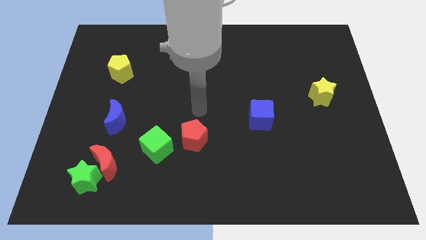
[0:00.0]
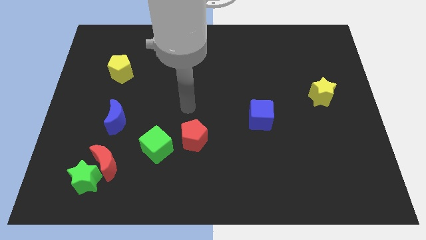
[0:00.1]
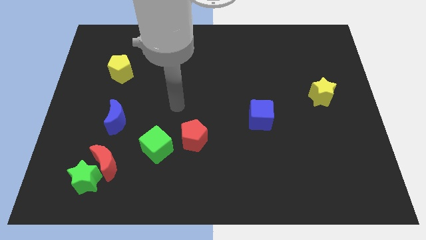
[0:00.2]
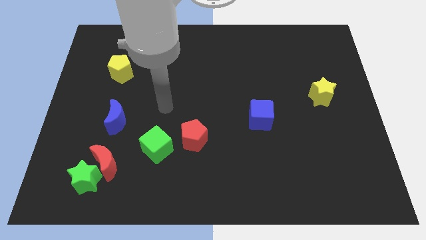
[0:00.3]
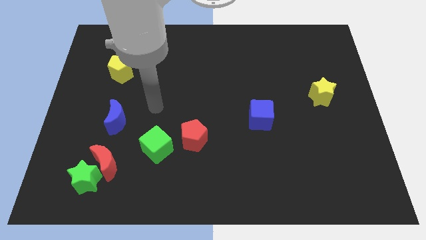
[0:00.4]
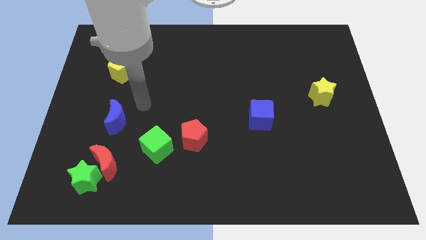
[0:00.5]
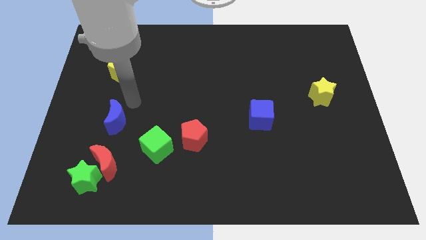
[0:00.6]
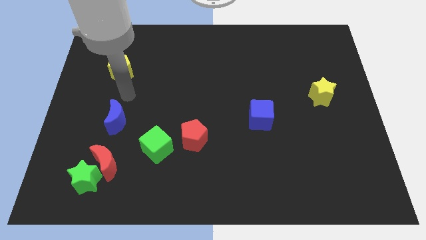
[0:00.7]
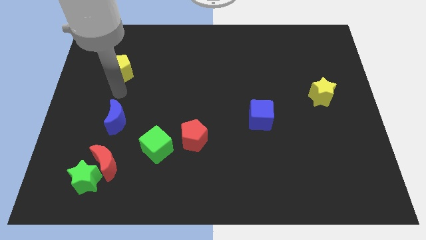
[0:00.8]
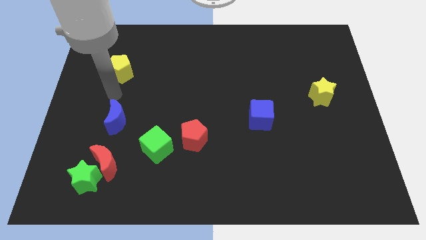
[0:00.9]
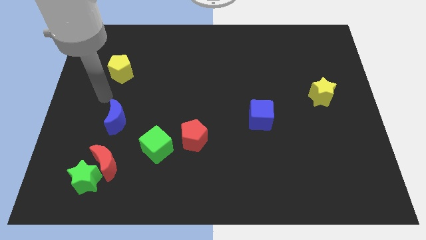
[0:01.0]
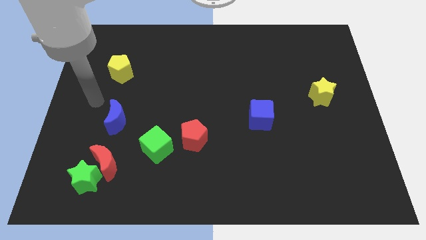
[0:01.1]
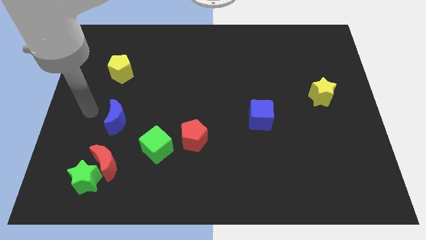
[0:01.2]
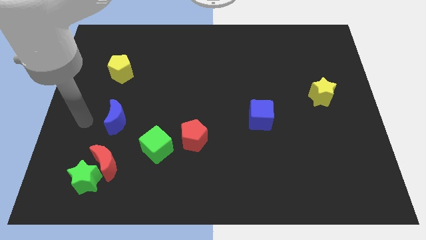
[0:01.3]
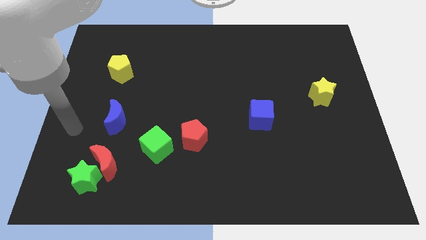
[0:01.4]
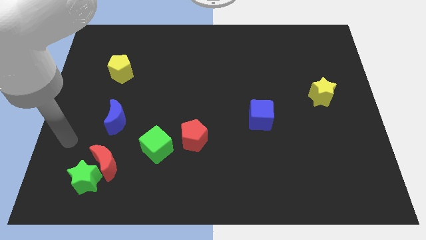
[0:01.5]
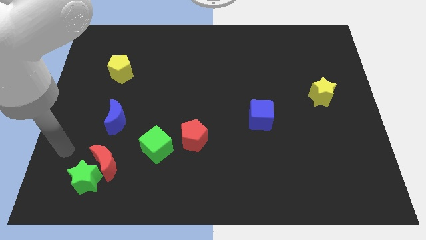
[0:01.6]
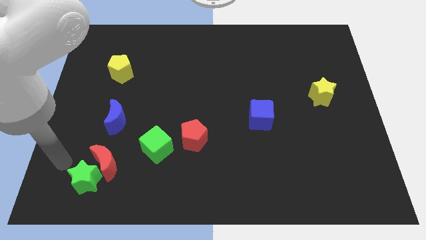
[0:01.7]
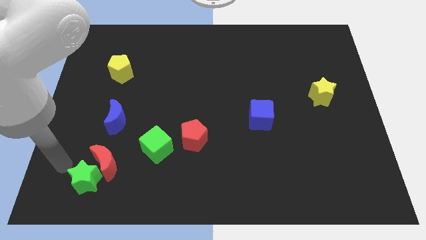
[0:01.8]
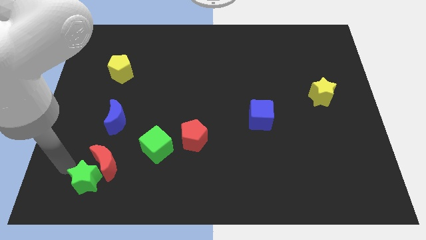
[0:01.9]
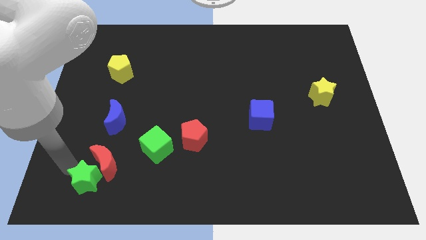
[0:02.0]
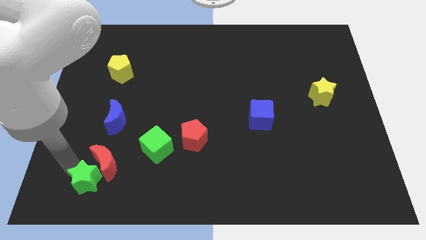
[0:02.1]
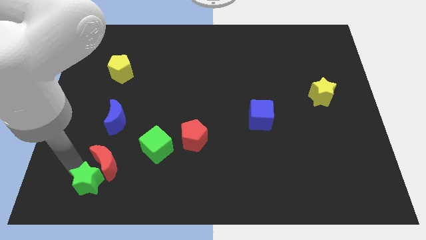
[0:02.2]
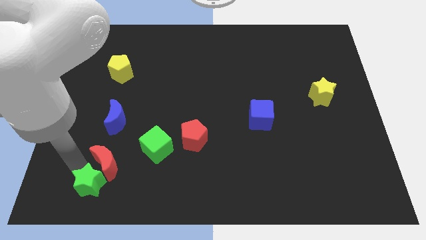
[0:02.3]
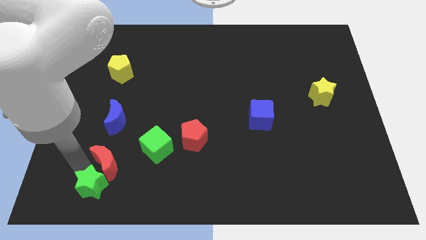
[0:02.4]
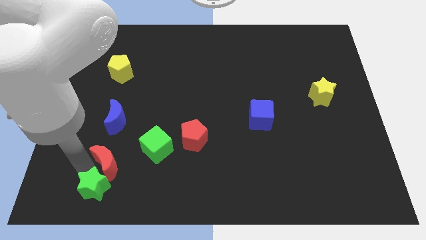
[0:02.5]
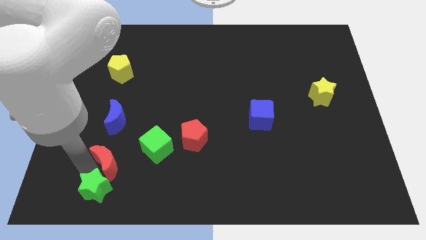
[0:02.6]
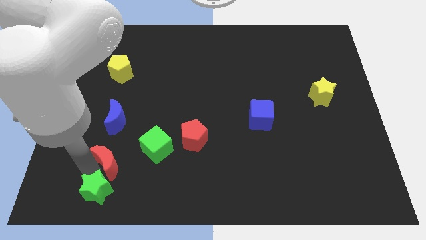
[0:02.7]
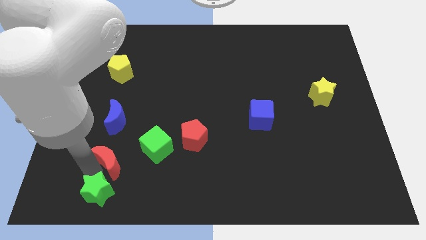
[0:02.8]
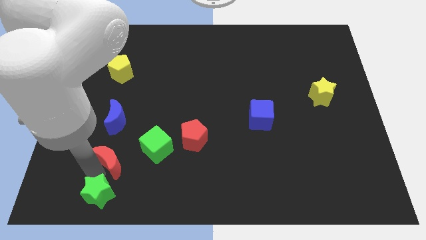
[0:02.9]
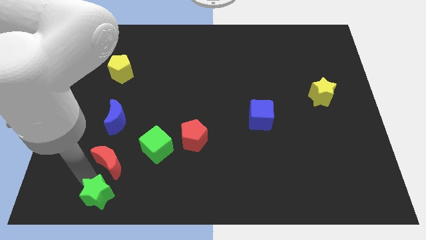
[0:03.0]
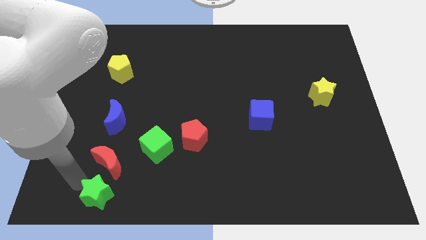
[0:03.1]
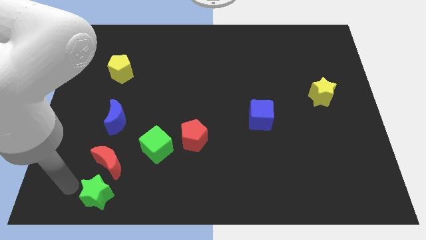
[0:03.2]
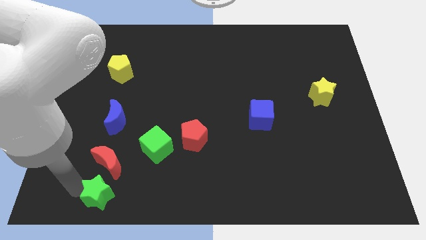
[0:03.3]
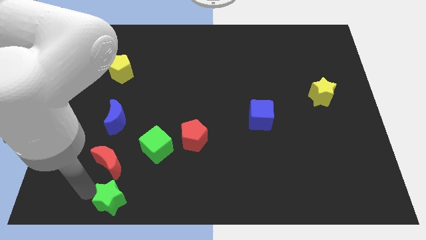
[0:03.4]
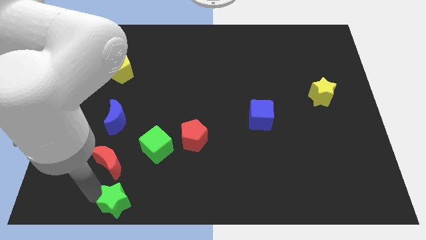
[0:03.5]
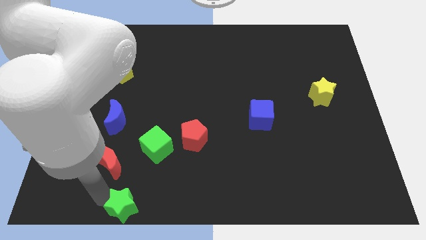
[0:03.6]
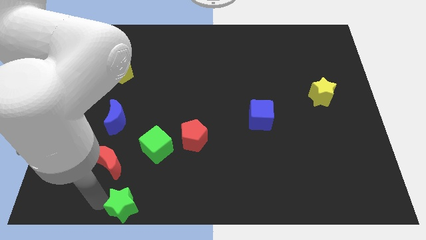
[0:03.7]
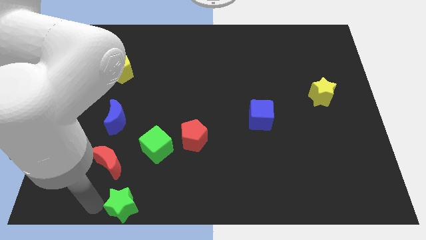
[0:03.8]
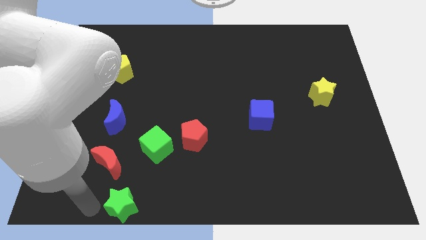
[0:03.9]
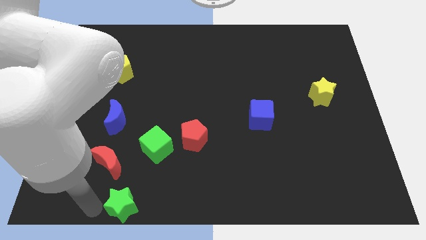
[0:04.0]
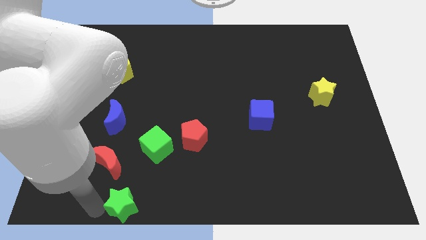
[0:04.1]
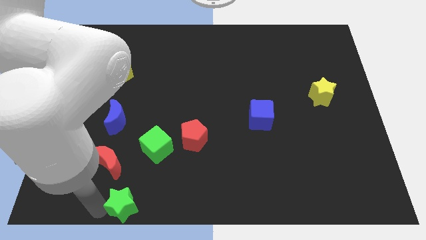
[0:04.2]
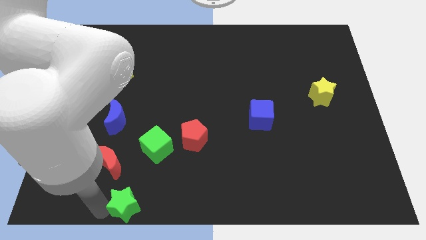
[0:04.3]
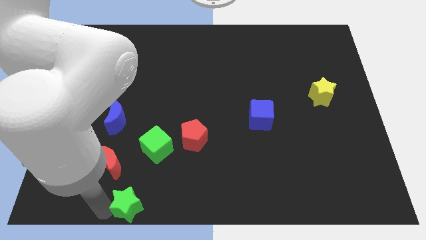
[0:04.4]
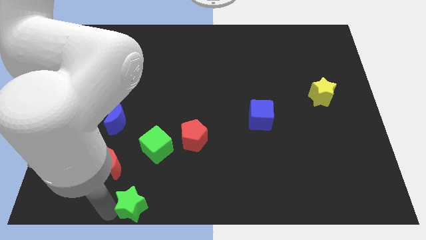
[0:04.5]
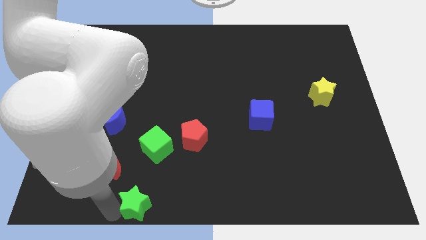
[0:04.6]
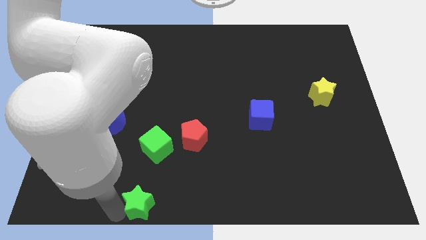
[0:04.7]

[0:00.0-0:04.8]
put the green star to the bottom

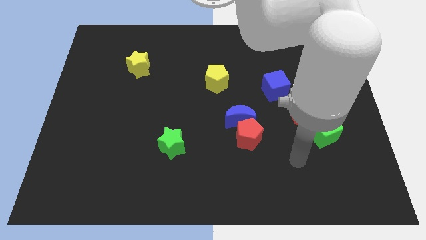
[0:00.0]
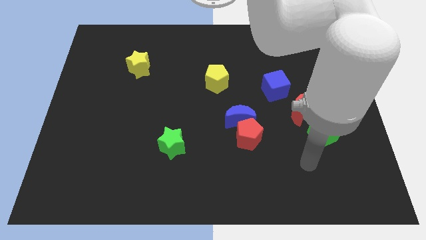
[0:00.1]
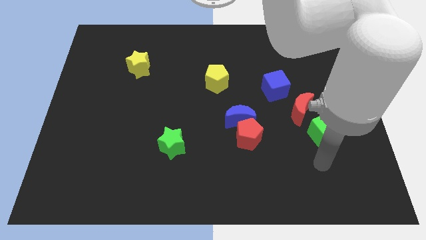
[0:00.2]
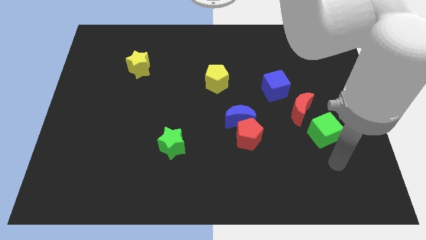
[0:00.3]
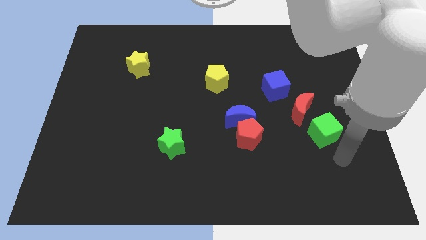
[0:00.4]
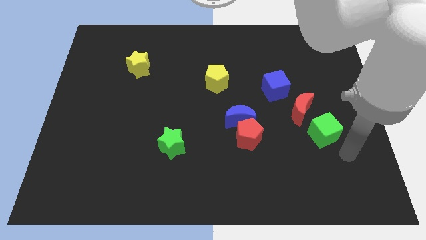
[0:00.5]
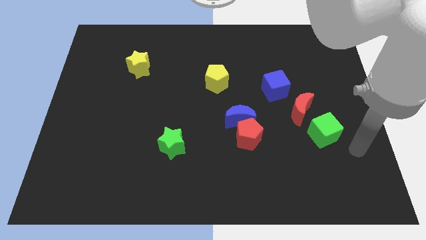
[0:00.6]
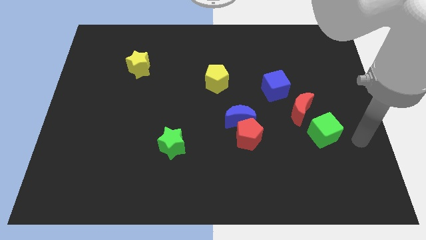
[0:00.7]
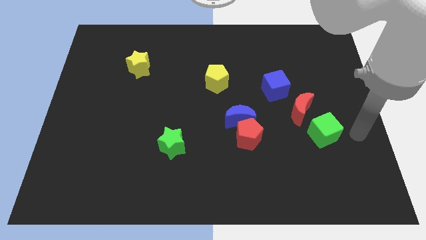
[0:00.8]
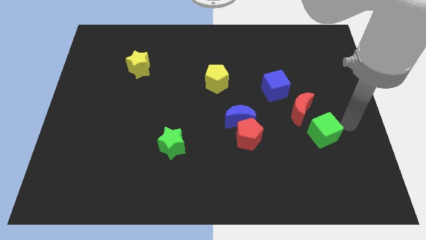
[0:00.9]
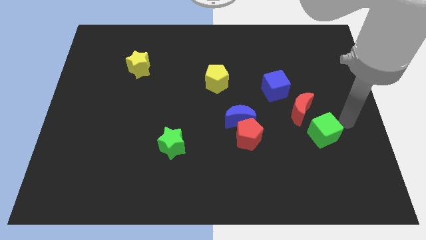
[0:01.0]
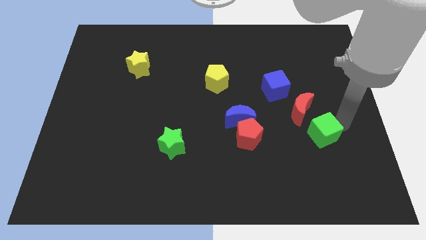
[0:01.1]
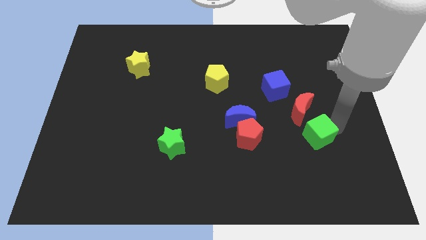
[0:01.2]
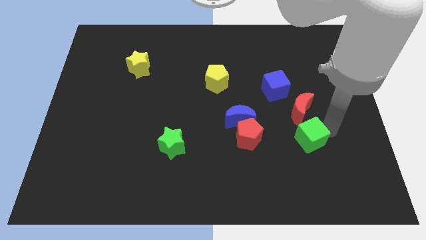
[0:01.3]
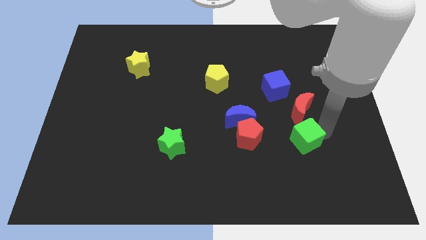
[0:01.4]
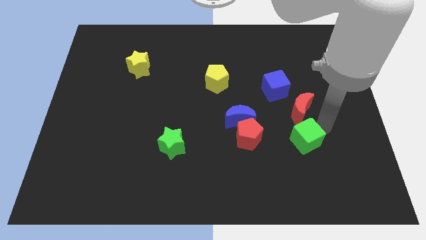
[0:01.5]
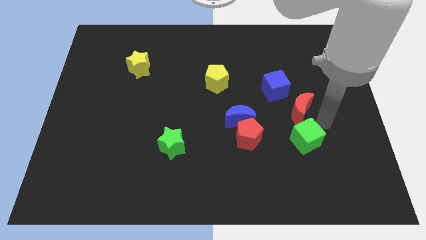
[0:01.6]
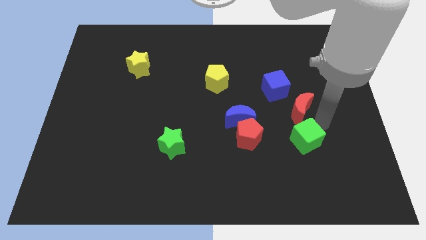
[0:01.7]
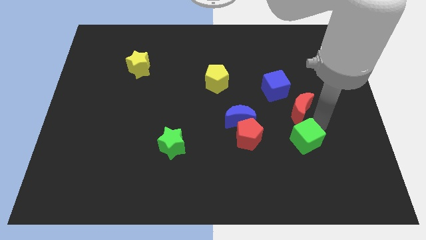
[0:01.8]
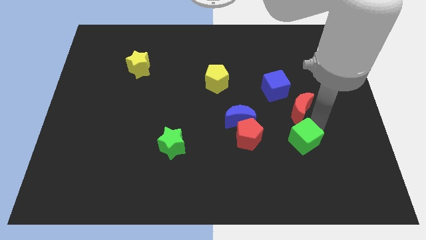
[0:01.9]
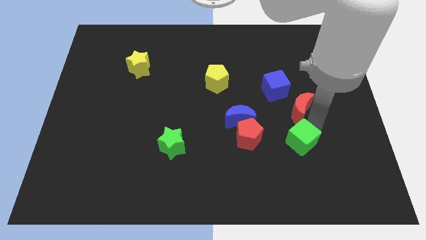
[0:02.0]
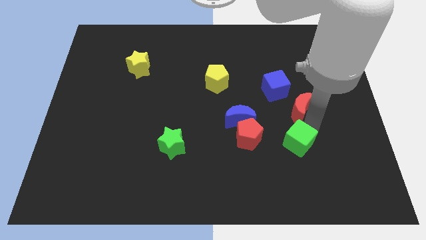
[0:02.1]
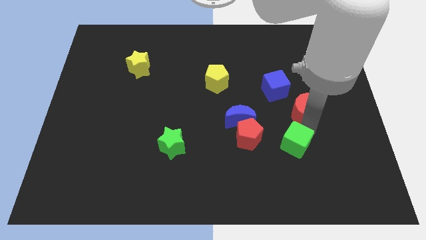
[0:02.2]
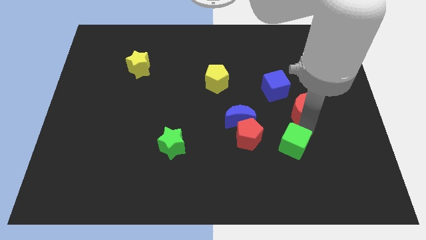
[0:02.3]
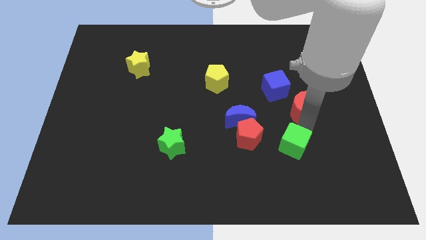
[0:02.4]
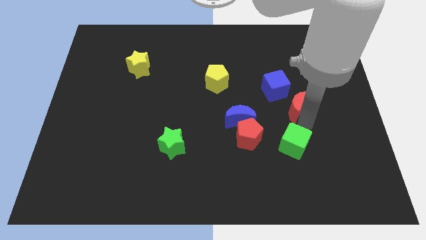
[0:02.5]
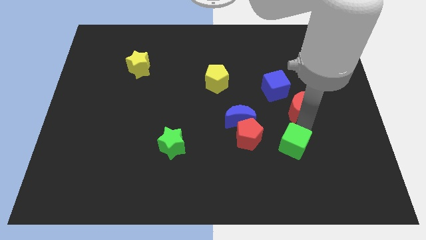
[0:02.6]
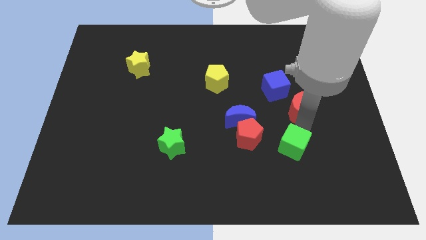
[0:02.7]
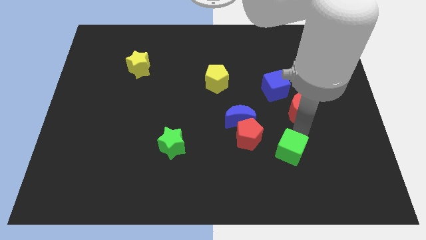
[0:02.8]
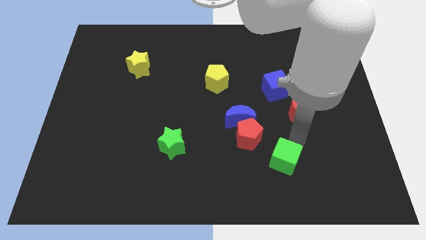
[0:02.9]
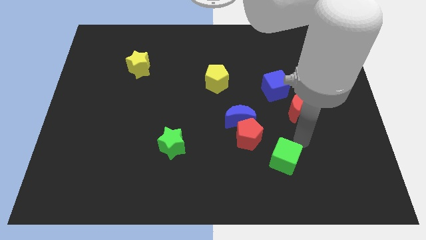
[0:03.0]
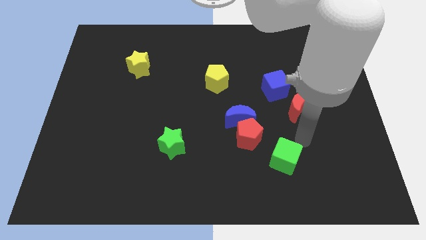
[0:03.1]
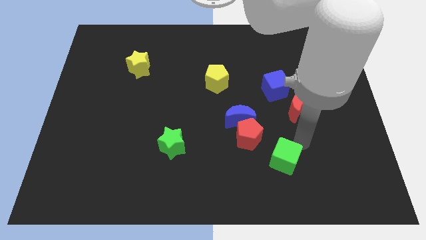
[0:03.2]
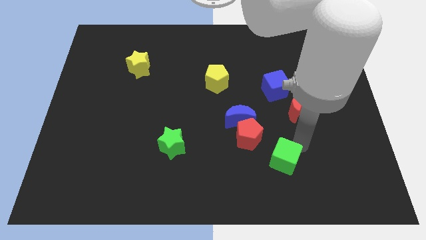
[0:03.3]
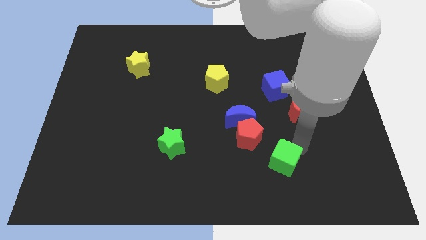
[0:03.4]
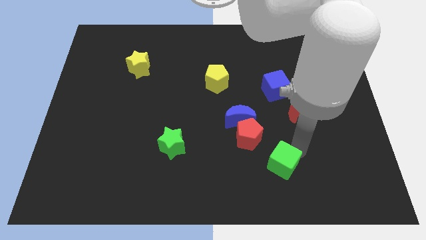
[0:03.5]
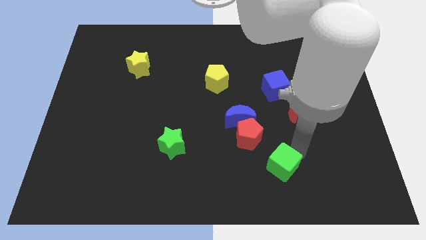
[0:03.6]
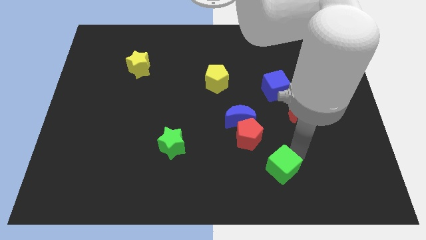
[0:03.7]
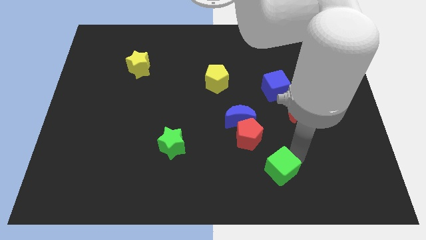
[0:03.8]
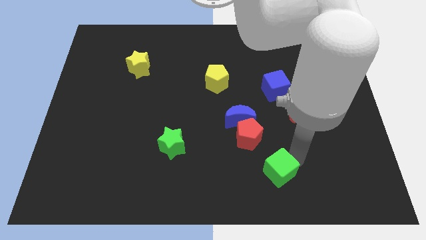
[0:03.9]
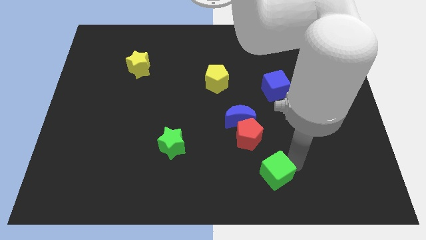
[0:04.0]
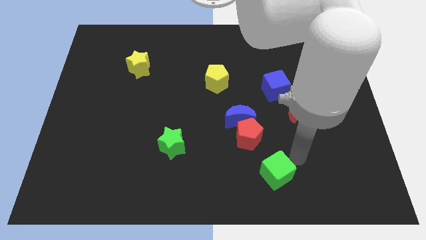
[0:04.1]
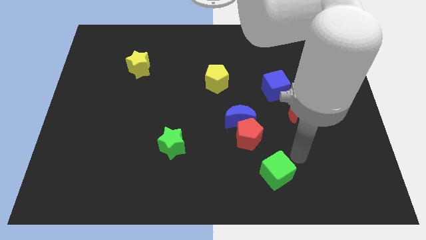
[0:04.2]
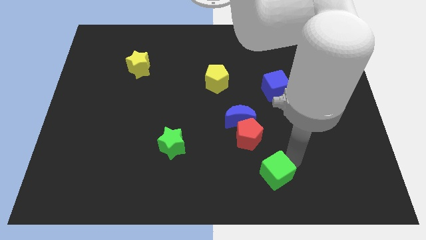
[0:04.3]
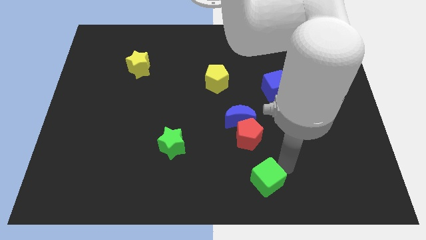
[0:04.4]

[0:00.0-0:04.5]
slide the green cube to the bottom side
